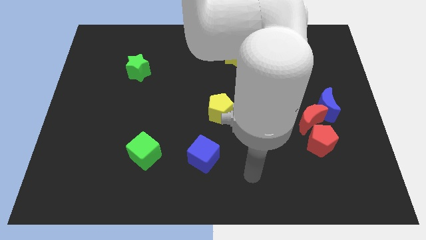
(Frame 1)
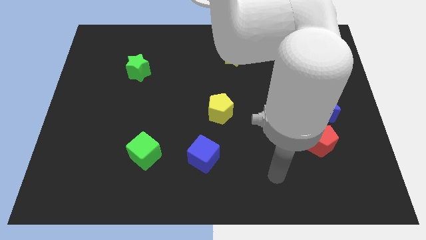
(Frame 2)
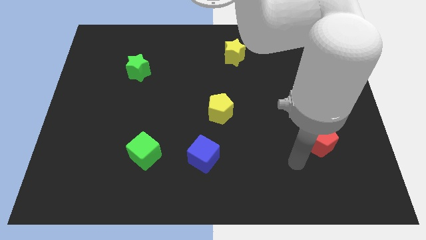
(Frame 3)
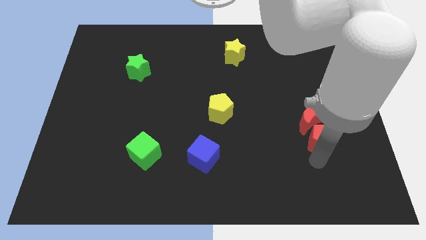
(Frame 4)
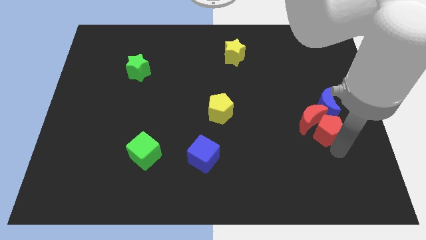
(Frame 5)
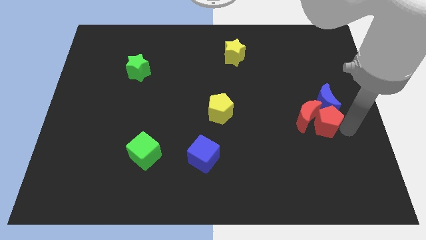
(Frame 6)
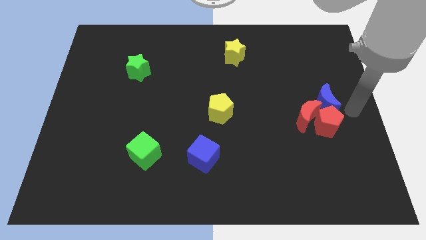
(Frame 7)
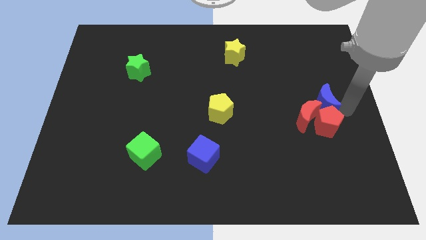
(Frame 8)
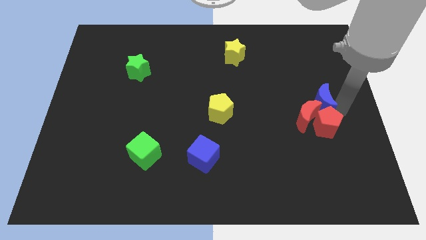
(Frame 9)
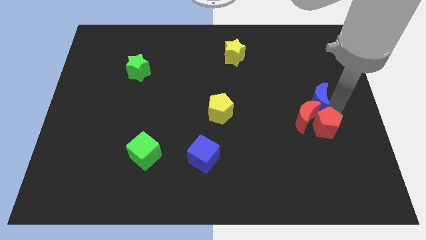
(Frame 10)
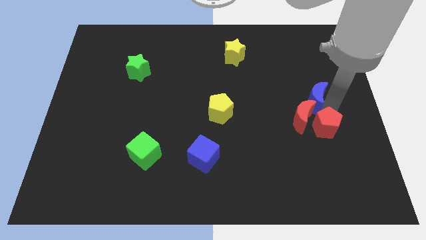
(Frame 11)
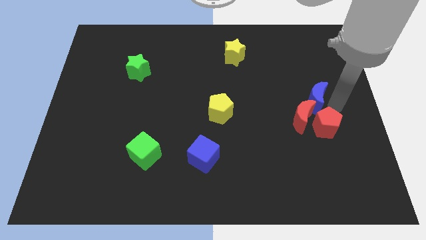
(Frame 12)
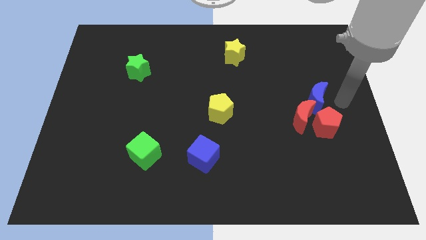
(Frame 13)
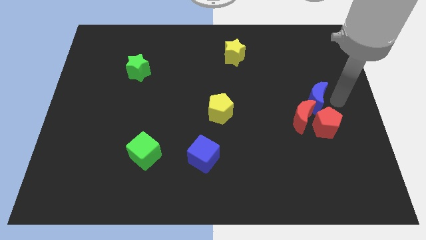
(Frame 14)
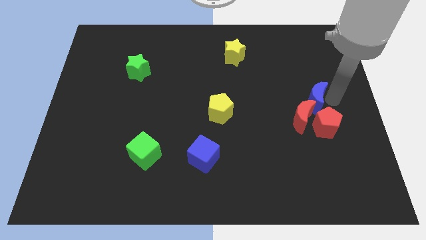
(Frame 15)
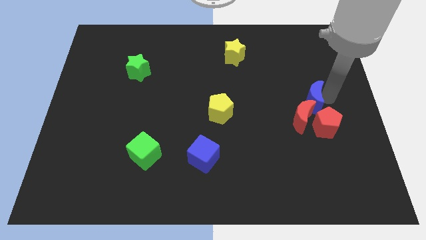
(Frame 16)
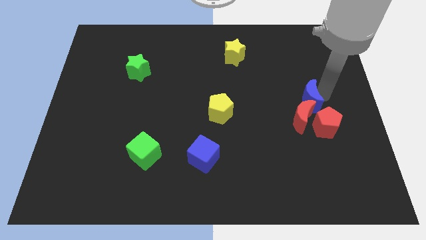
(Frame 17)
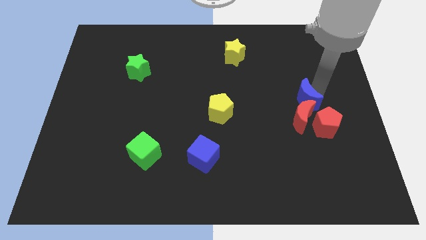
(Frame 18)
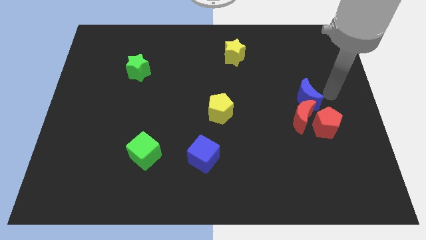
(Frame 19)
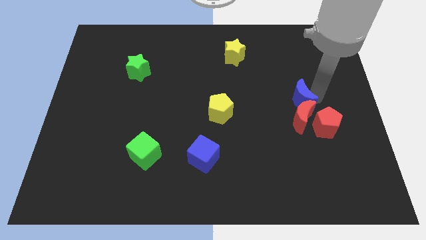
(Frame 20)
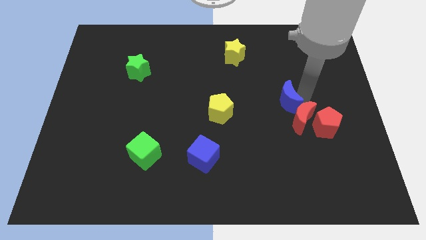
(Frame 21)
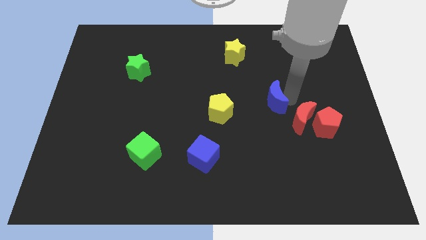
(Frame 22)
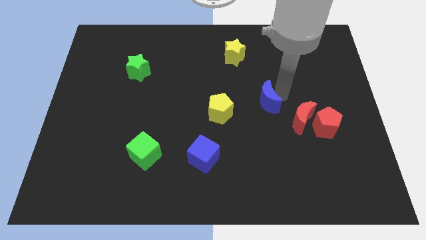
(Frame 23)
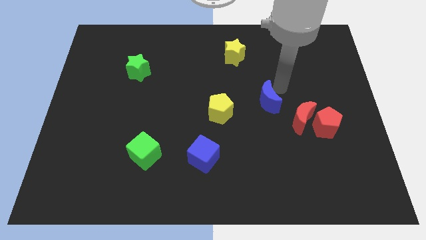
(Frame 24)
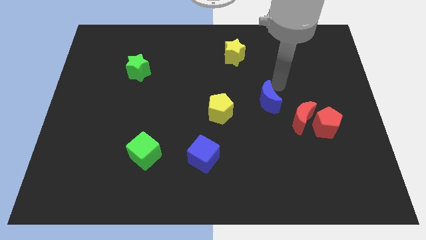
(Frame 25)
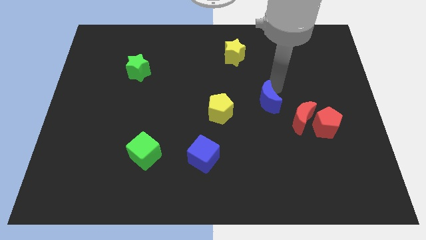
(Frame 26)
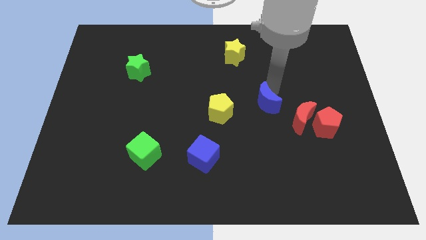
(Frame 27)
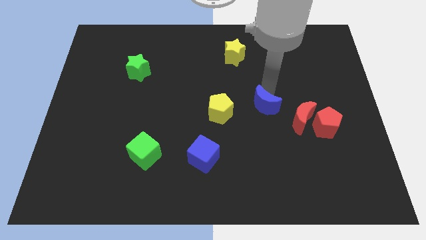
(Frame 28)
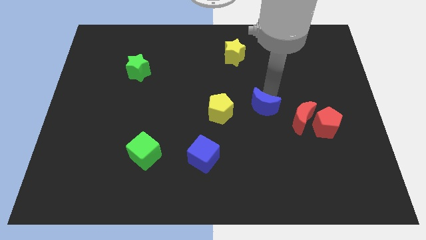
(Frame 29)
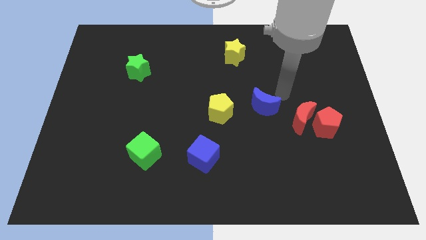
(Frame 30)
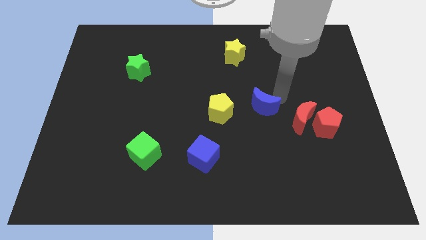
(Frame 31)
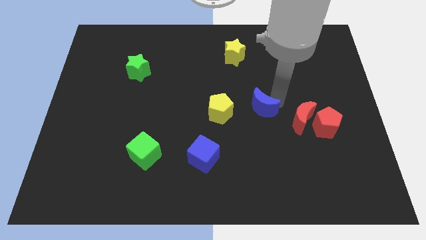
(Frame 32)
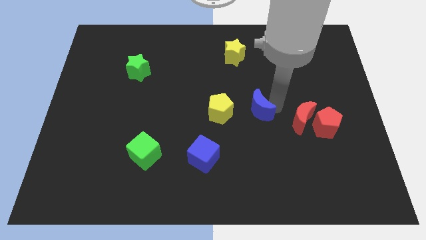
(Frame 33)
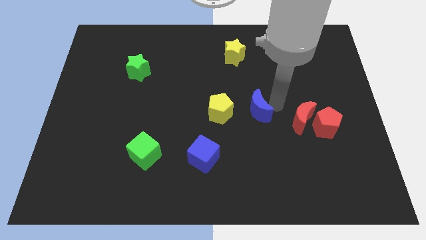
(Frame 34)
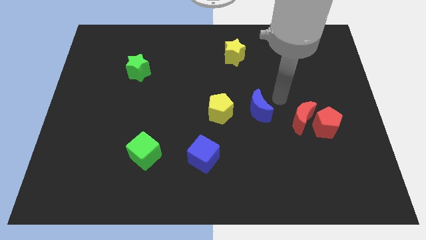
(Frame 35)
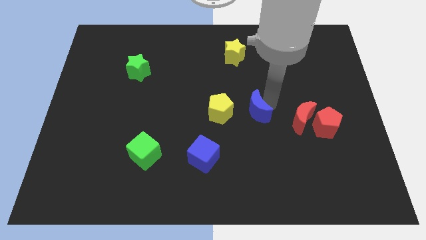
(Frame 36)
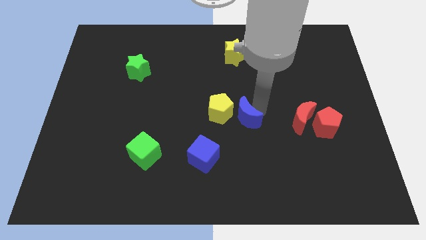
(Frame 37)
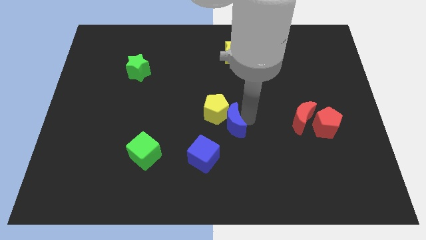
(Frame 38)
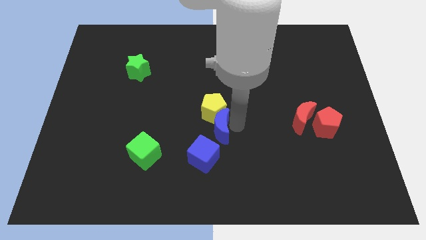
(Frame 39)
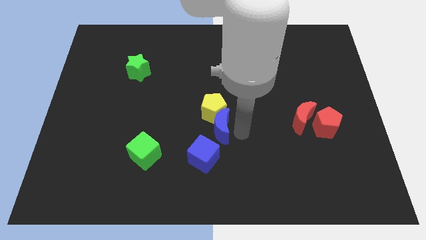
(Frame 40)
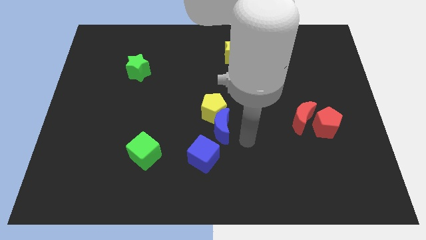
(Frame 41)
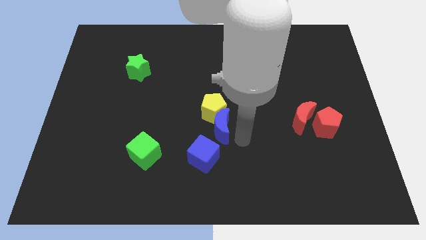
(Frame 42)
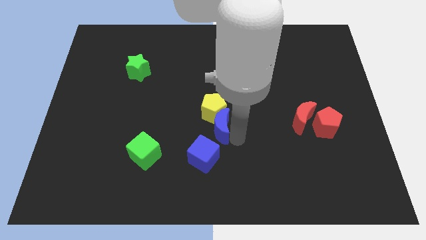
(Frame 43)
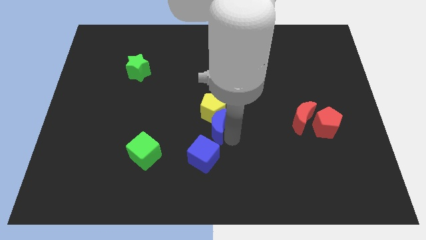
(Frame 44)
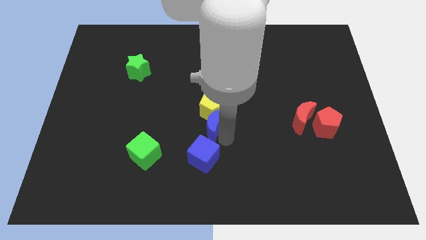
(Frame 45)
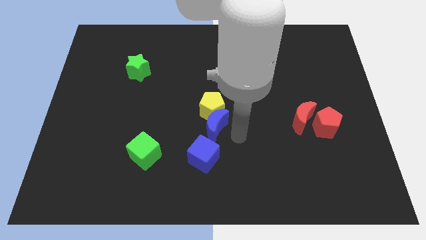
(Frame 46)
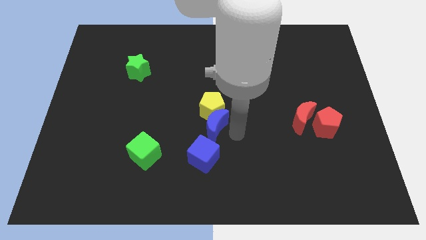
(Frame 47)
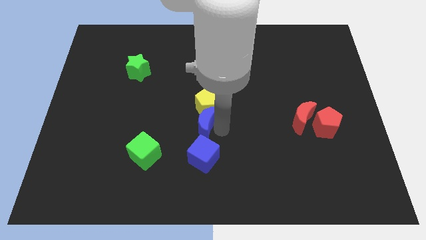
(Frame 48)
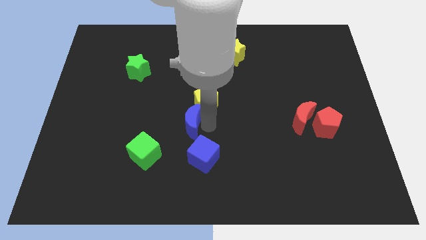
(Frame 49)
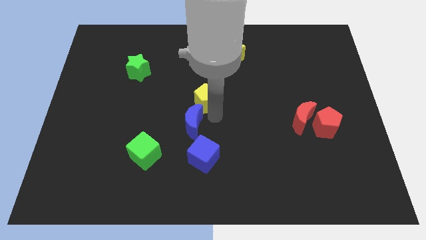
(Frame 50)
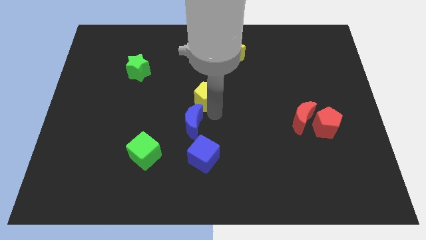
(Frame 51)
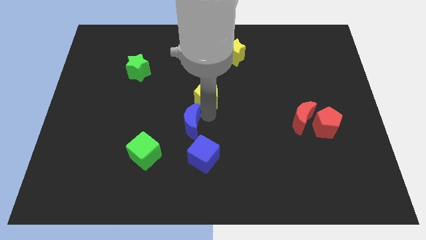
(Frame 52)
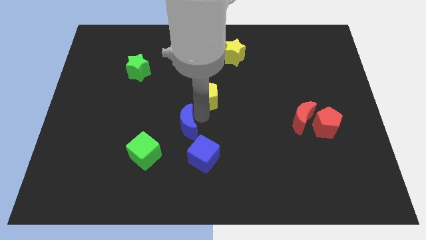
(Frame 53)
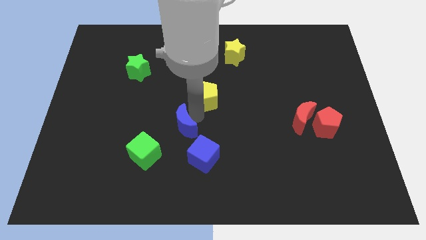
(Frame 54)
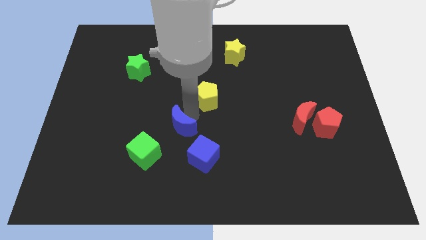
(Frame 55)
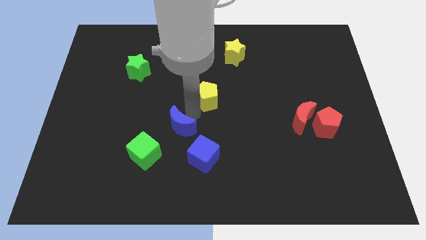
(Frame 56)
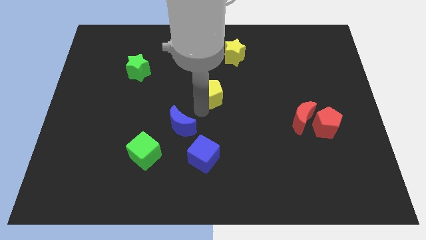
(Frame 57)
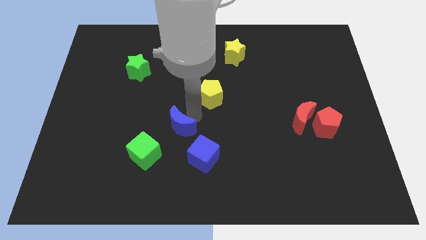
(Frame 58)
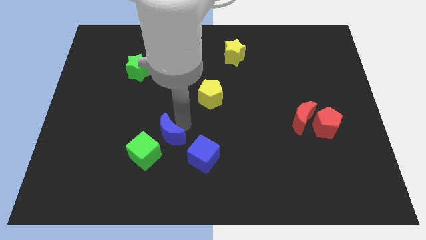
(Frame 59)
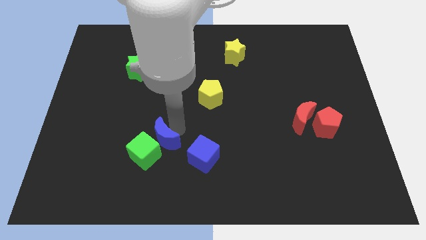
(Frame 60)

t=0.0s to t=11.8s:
push the blue moon next to the green cube

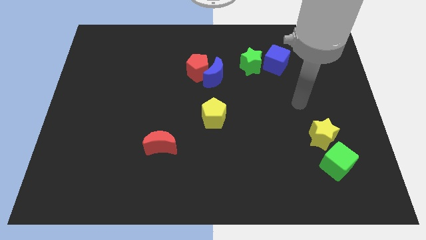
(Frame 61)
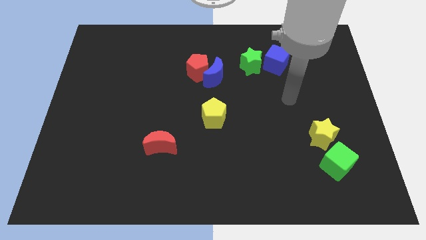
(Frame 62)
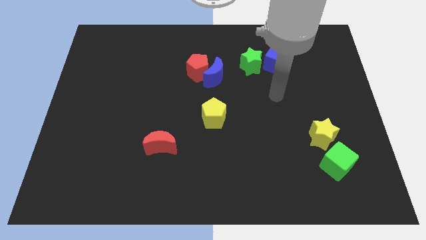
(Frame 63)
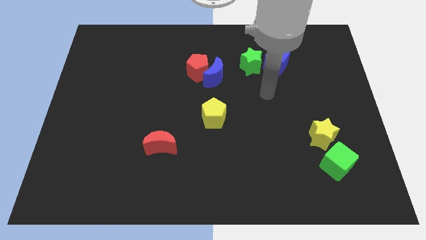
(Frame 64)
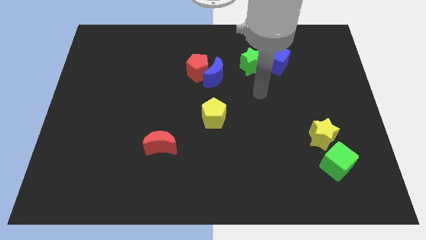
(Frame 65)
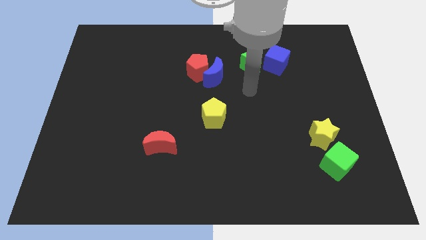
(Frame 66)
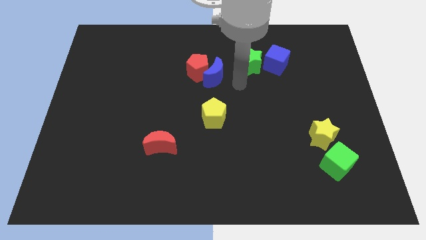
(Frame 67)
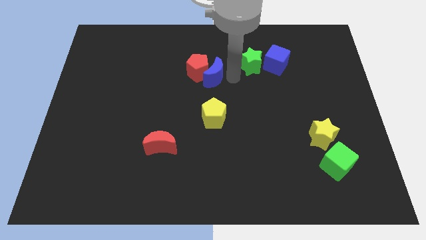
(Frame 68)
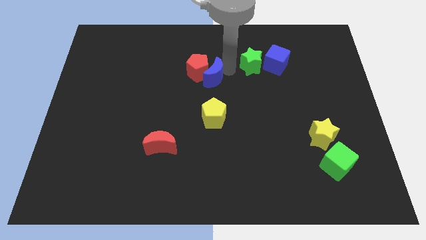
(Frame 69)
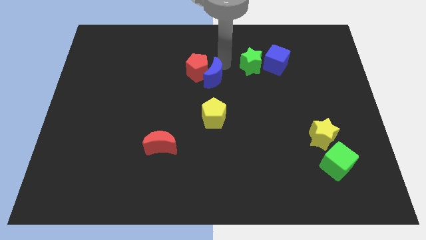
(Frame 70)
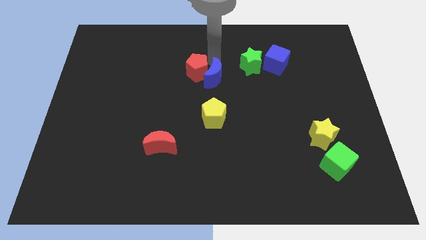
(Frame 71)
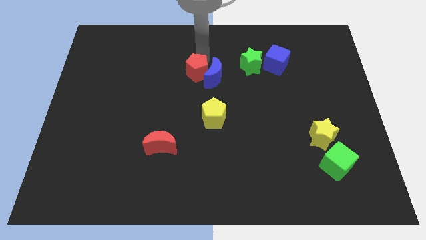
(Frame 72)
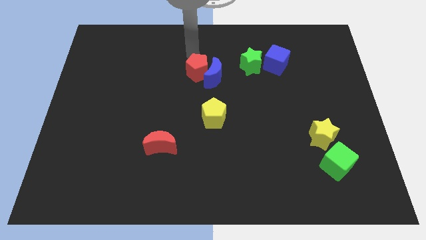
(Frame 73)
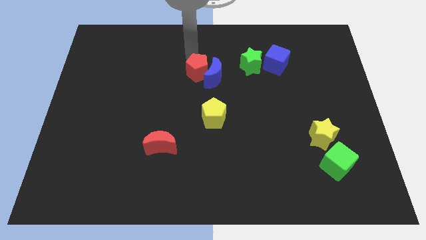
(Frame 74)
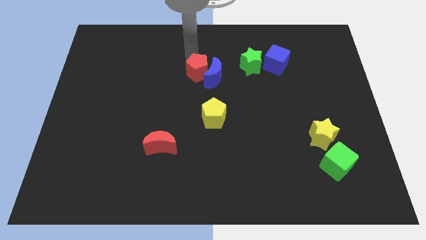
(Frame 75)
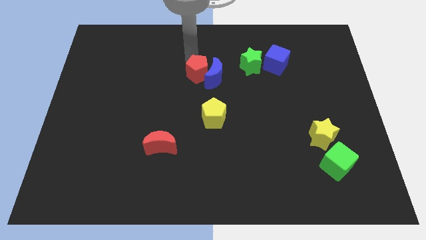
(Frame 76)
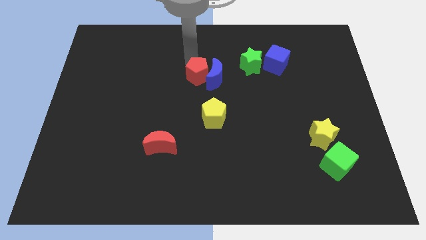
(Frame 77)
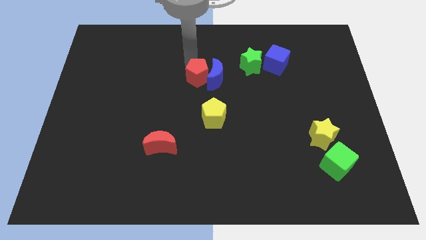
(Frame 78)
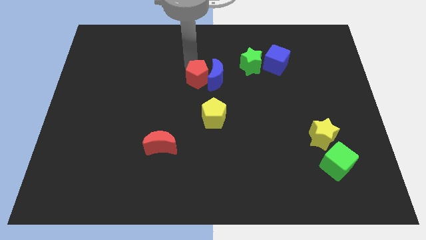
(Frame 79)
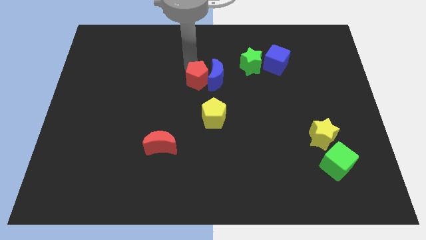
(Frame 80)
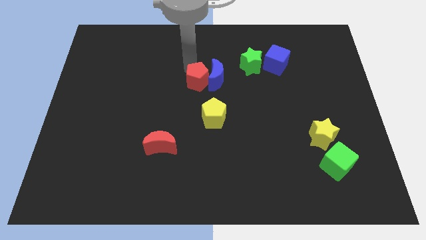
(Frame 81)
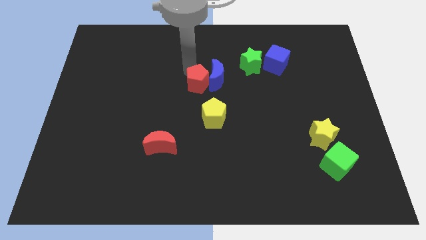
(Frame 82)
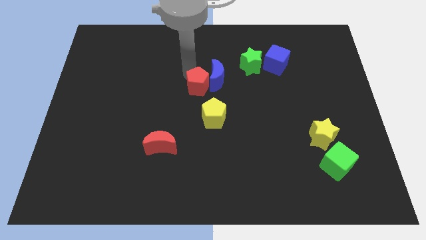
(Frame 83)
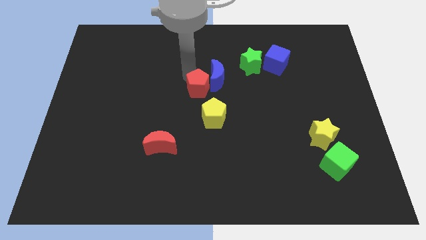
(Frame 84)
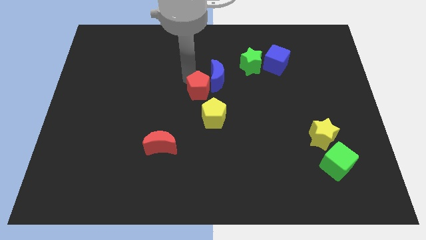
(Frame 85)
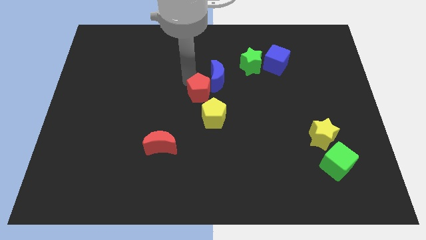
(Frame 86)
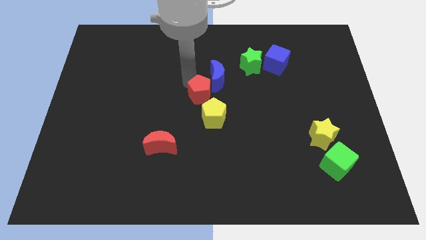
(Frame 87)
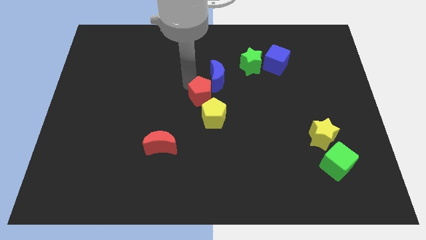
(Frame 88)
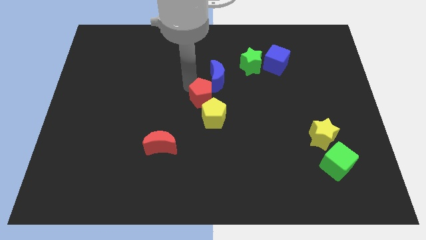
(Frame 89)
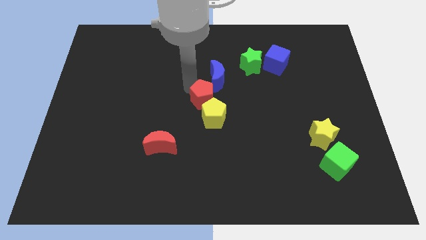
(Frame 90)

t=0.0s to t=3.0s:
put the red pentagon next to the yellow pentagon
